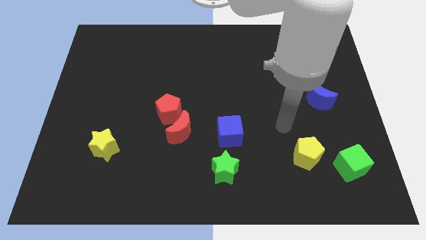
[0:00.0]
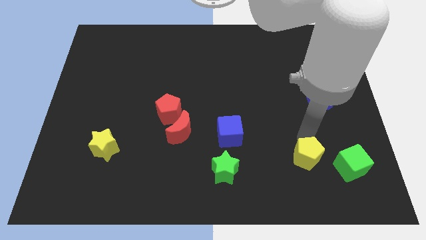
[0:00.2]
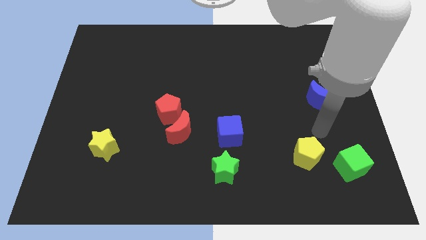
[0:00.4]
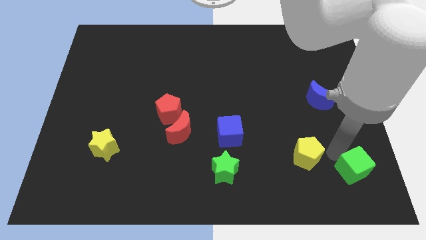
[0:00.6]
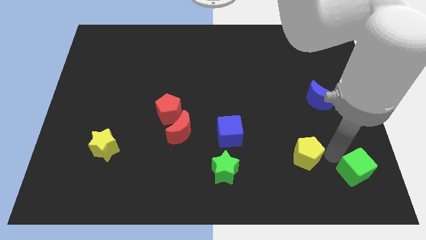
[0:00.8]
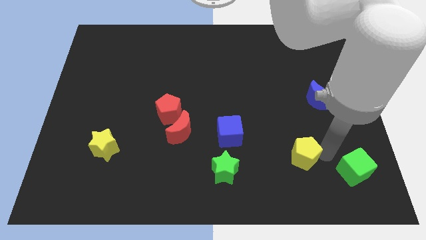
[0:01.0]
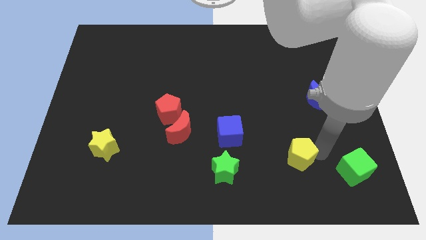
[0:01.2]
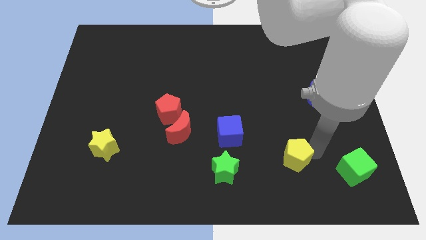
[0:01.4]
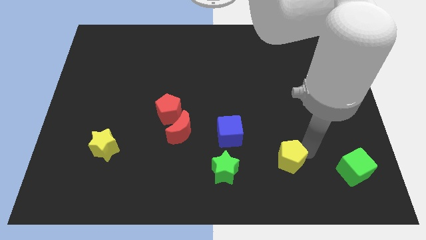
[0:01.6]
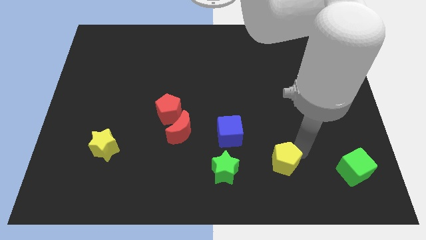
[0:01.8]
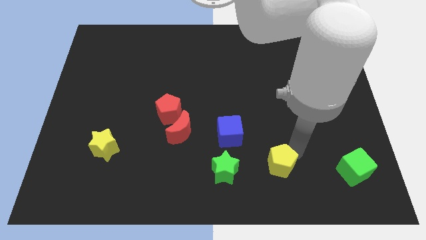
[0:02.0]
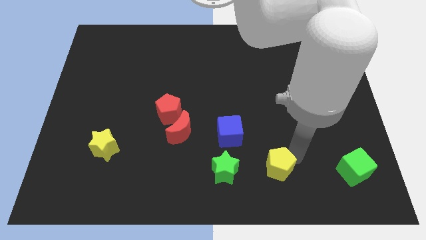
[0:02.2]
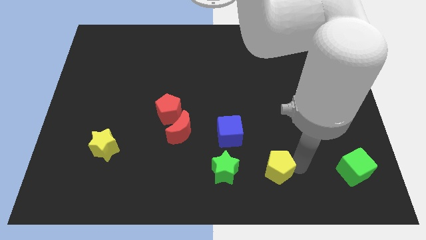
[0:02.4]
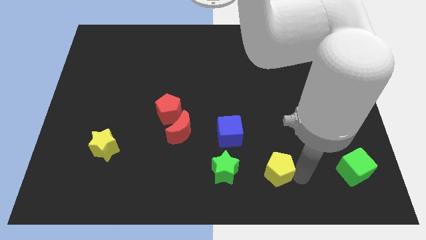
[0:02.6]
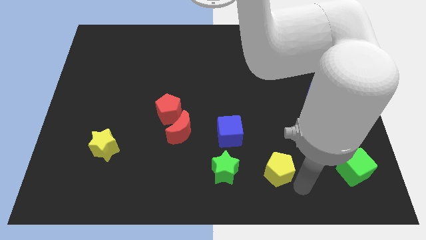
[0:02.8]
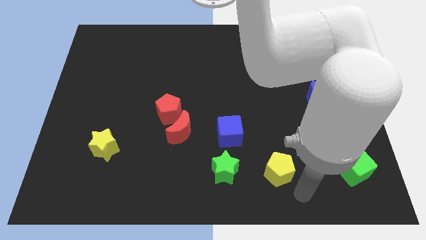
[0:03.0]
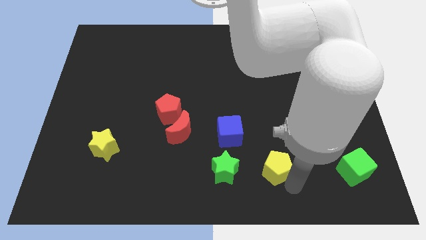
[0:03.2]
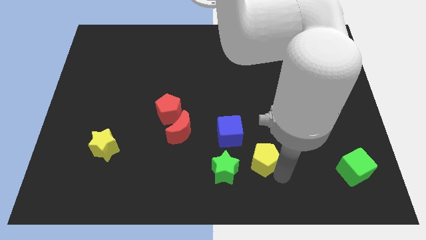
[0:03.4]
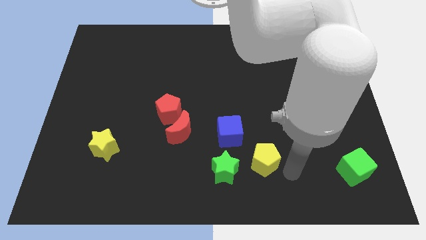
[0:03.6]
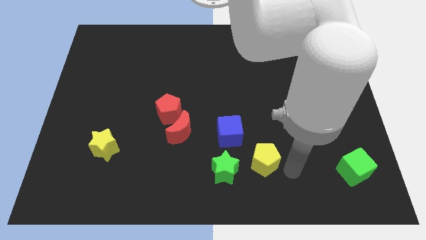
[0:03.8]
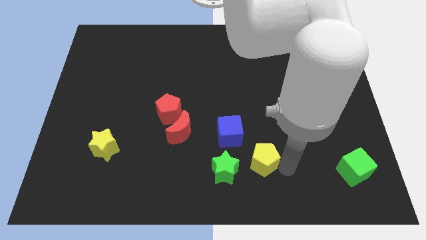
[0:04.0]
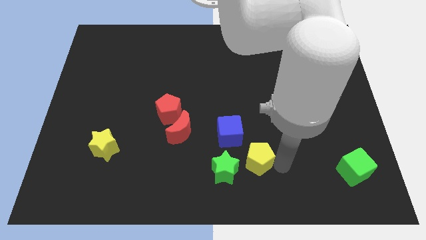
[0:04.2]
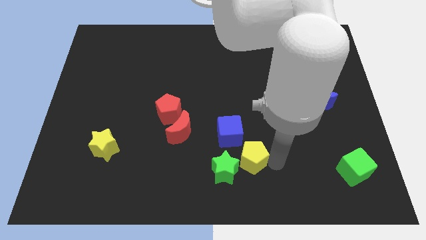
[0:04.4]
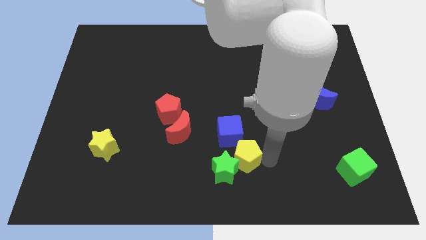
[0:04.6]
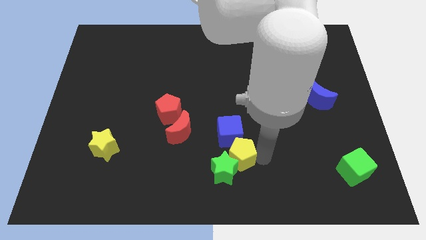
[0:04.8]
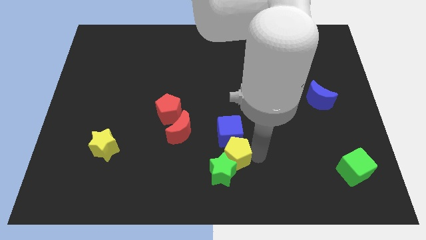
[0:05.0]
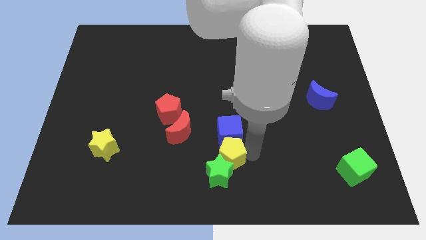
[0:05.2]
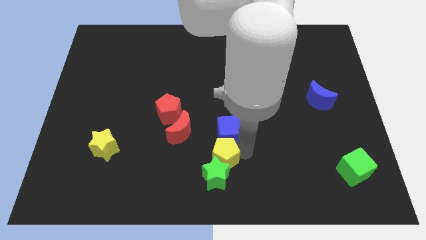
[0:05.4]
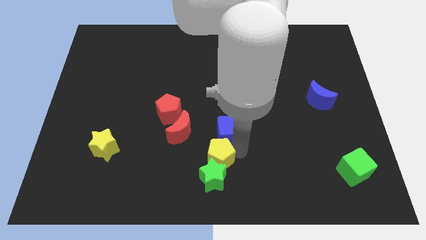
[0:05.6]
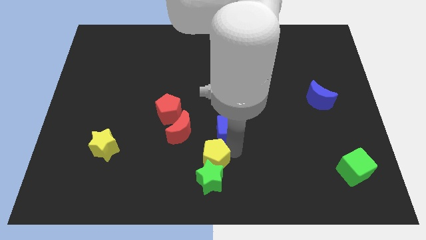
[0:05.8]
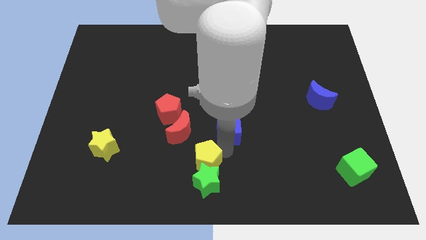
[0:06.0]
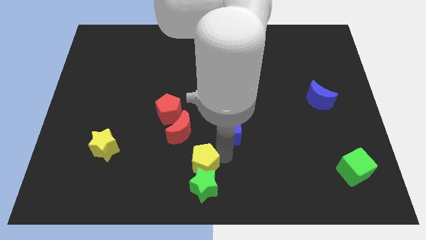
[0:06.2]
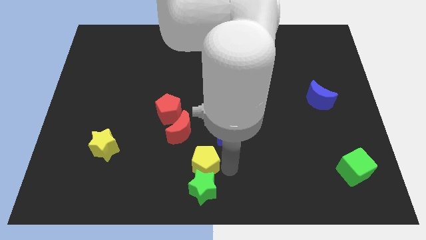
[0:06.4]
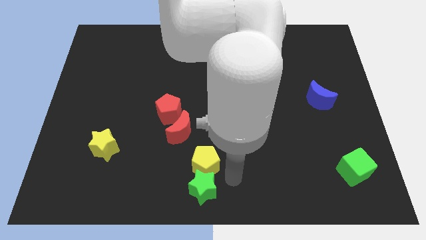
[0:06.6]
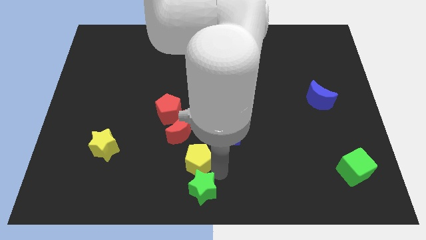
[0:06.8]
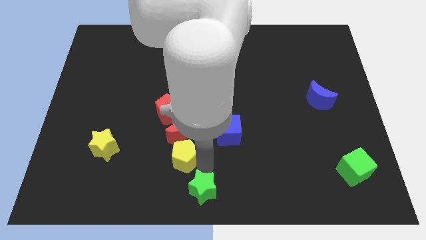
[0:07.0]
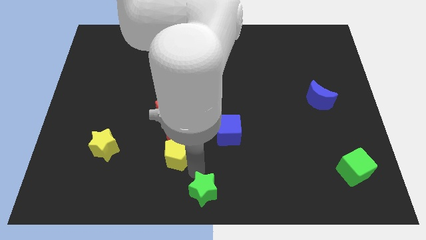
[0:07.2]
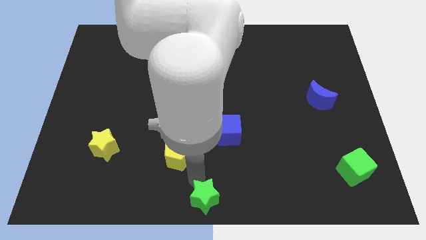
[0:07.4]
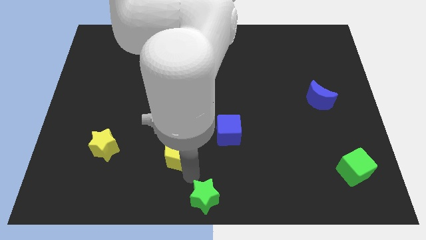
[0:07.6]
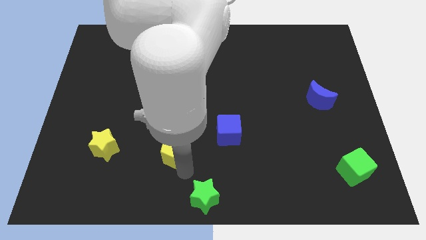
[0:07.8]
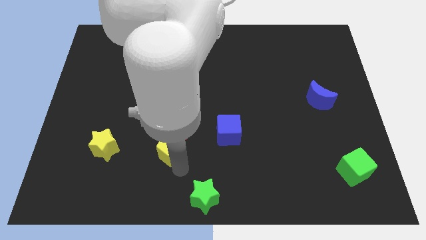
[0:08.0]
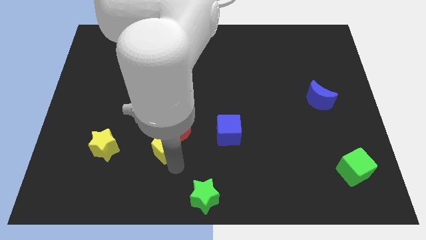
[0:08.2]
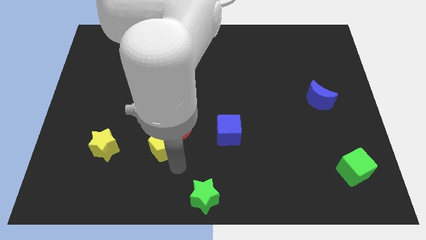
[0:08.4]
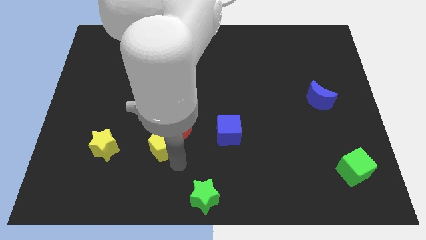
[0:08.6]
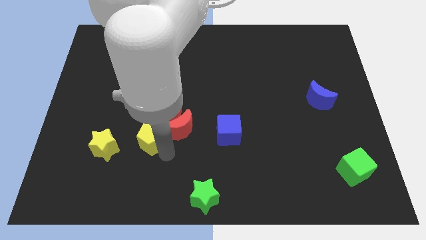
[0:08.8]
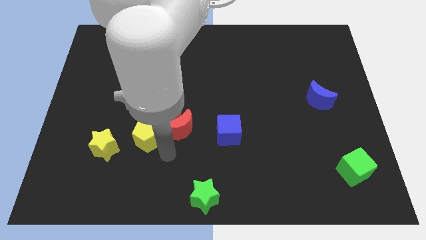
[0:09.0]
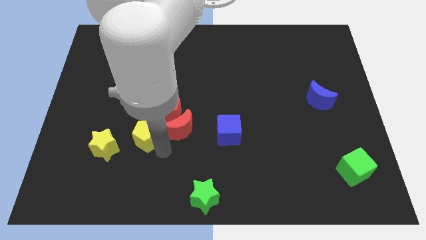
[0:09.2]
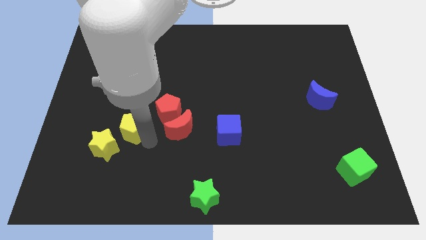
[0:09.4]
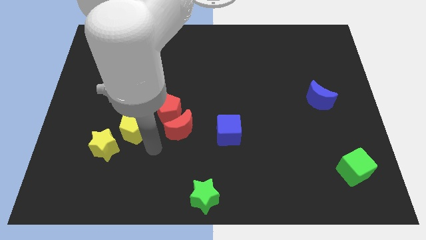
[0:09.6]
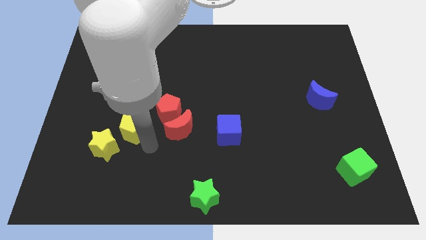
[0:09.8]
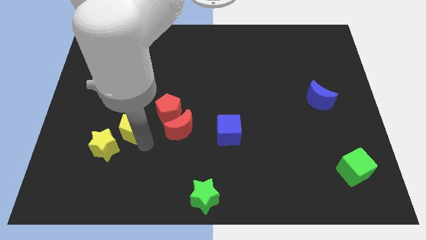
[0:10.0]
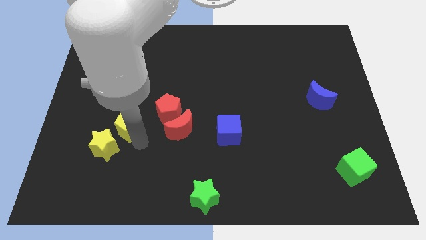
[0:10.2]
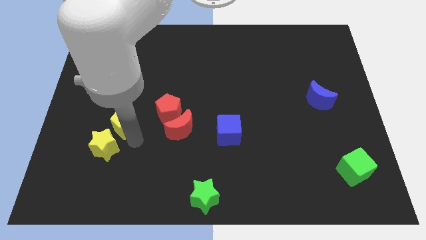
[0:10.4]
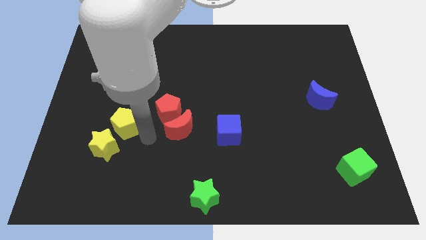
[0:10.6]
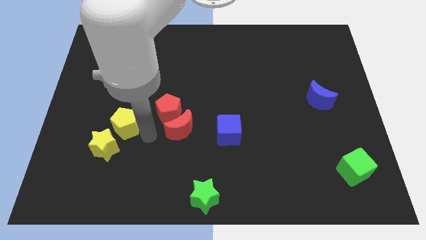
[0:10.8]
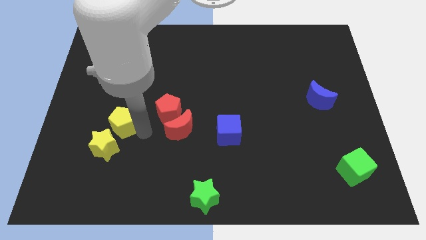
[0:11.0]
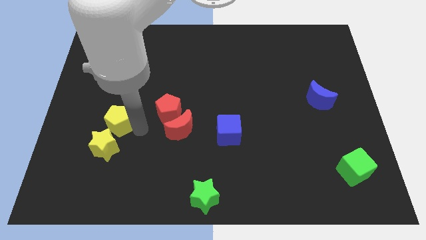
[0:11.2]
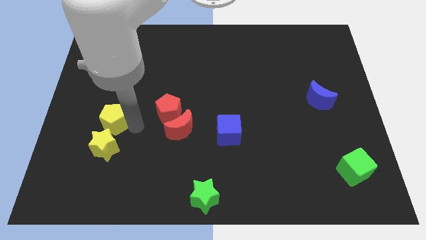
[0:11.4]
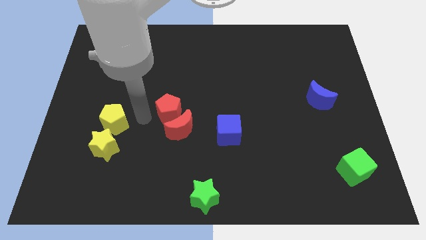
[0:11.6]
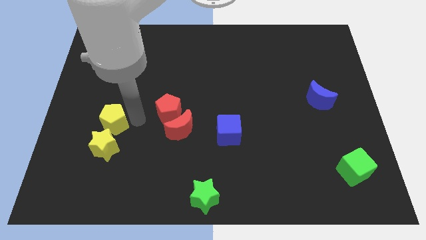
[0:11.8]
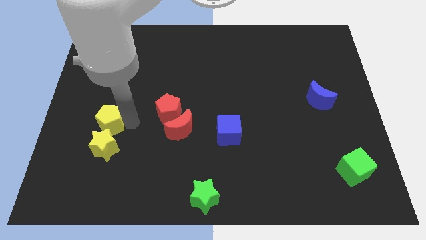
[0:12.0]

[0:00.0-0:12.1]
put the yellow pentagon to the top left of the yellow star
